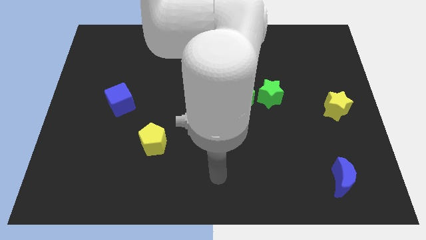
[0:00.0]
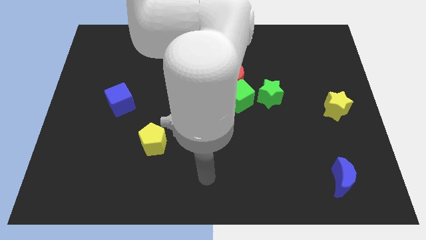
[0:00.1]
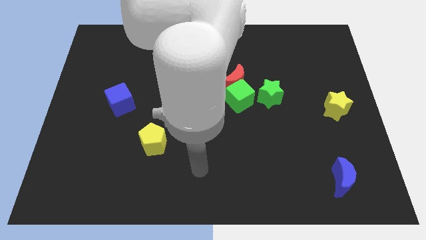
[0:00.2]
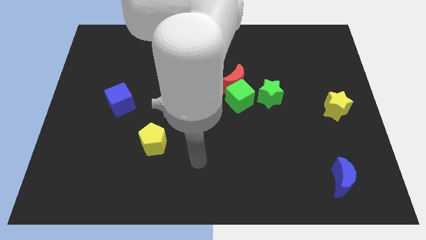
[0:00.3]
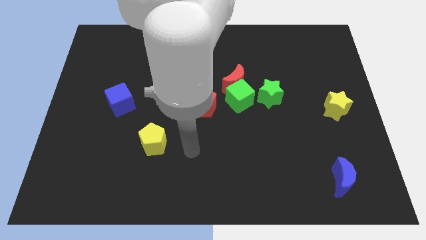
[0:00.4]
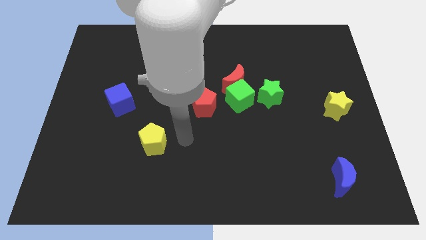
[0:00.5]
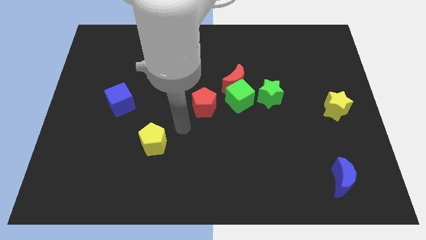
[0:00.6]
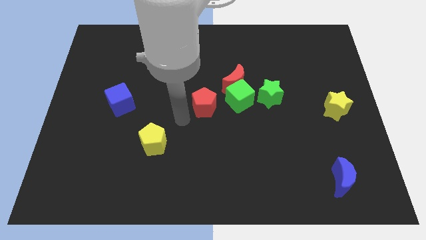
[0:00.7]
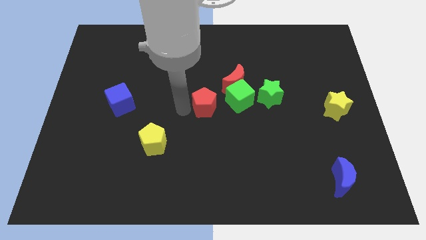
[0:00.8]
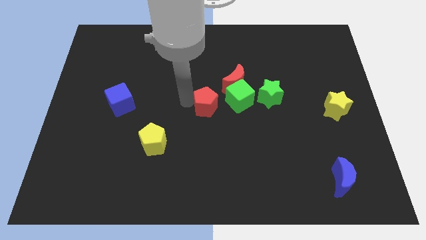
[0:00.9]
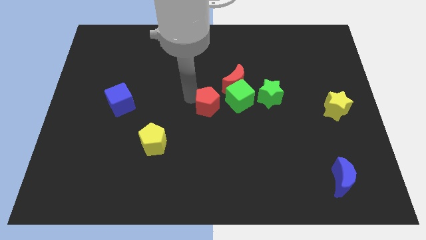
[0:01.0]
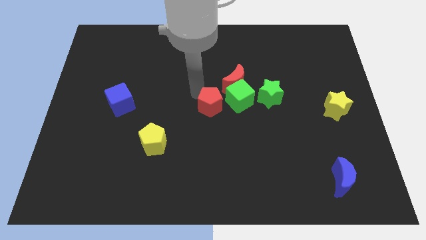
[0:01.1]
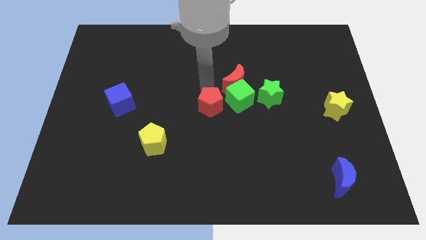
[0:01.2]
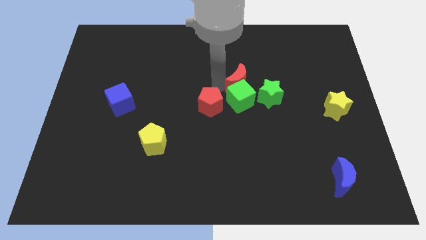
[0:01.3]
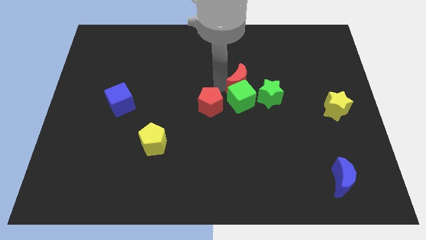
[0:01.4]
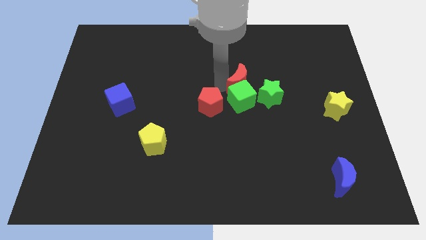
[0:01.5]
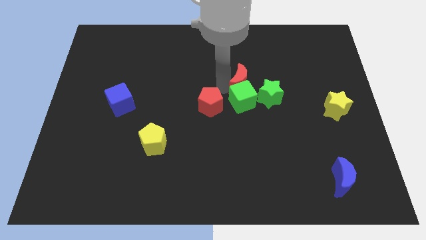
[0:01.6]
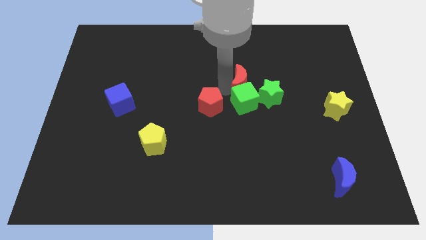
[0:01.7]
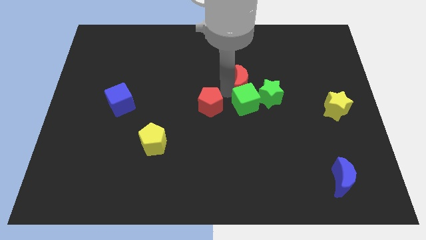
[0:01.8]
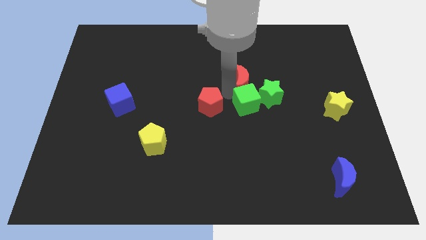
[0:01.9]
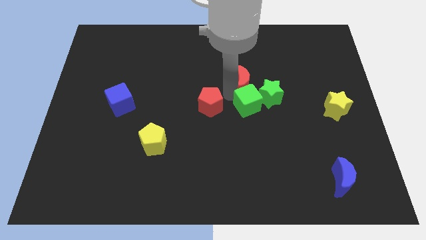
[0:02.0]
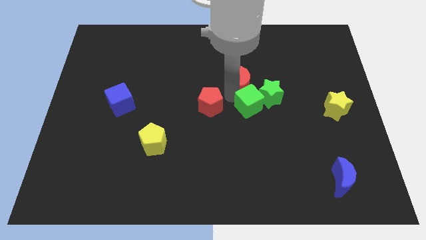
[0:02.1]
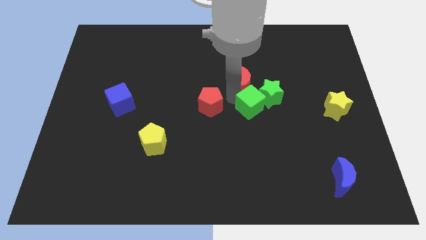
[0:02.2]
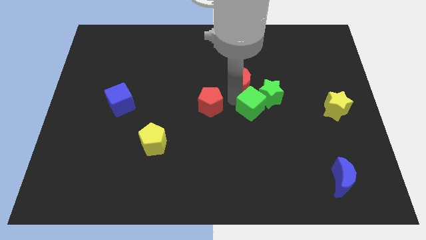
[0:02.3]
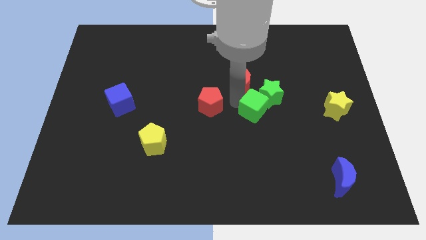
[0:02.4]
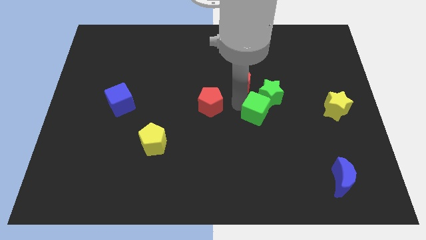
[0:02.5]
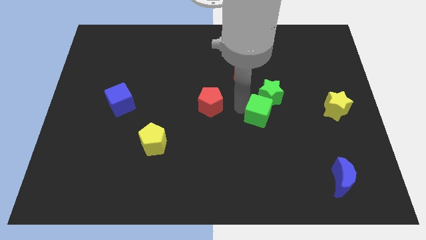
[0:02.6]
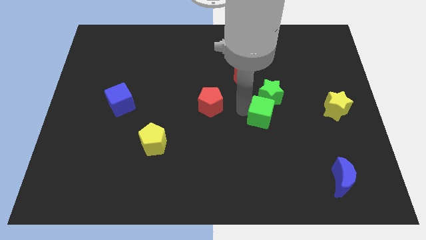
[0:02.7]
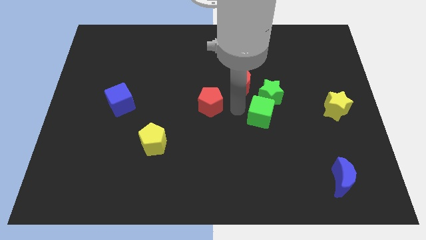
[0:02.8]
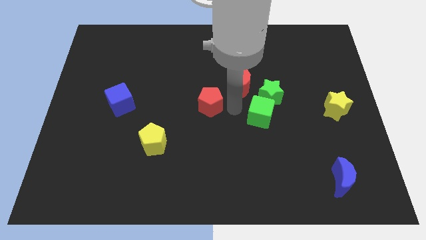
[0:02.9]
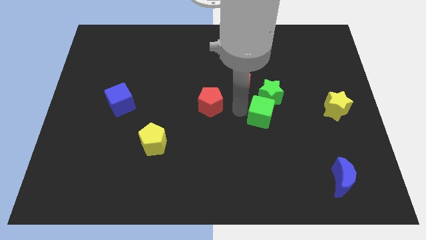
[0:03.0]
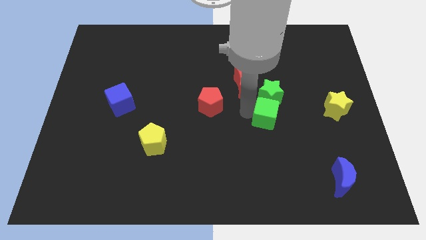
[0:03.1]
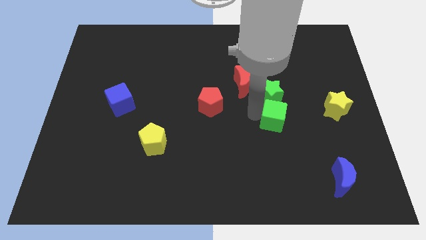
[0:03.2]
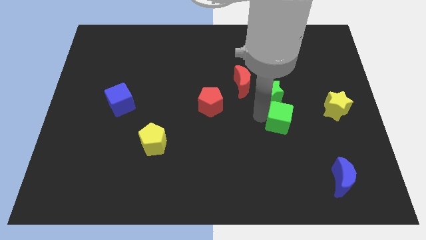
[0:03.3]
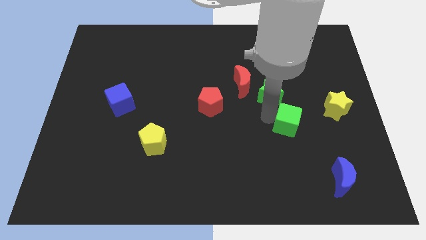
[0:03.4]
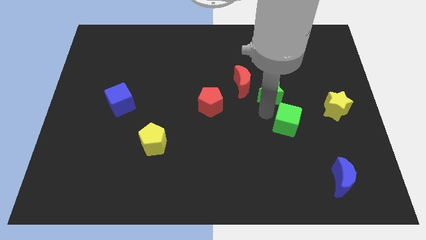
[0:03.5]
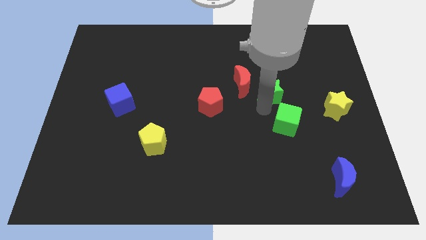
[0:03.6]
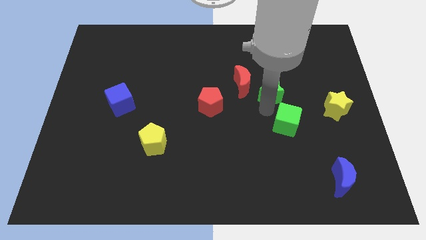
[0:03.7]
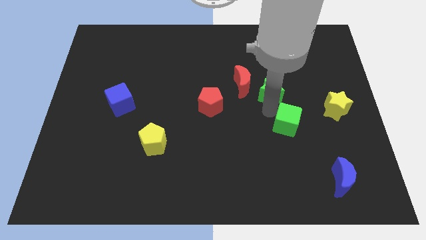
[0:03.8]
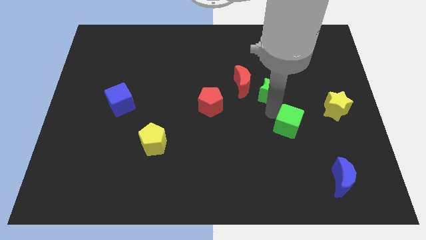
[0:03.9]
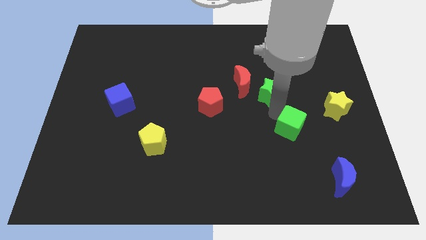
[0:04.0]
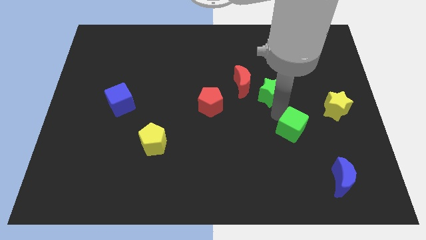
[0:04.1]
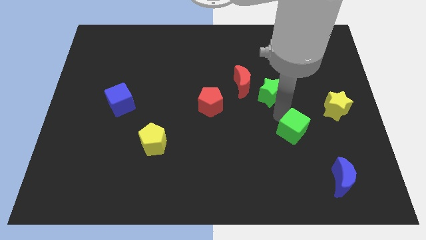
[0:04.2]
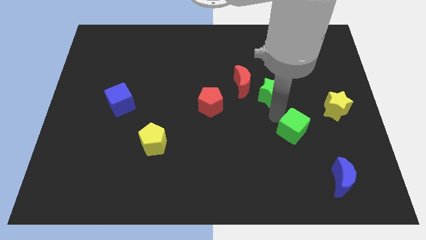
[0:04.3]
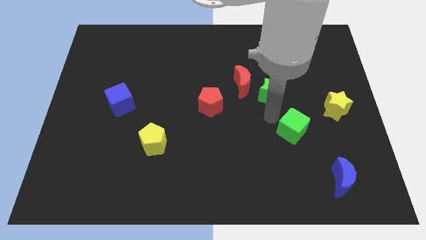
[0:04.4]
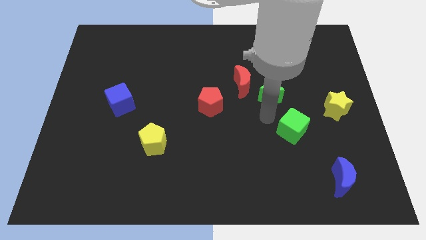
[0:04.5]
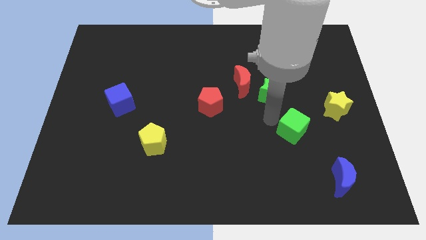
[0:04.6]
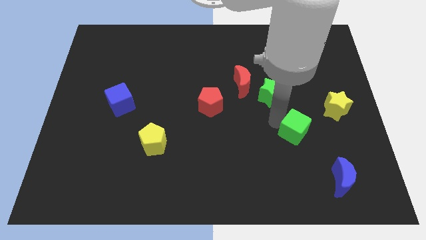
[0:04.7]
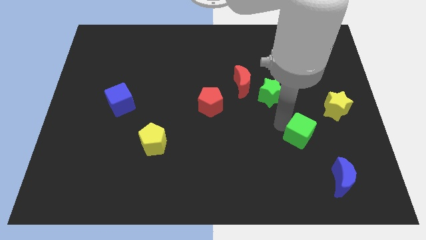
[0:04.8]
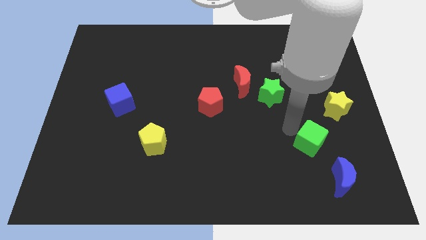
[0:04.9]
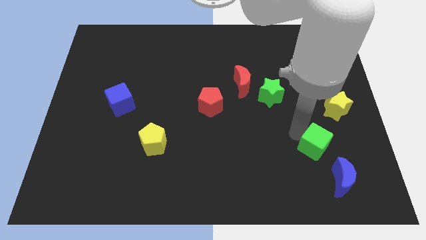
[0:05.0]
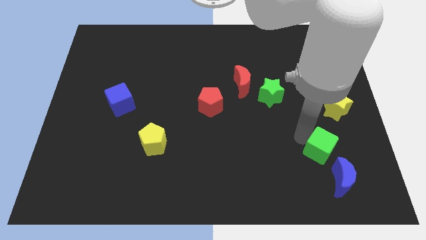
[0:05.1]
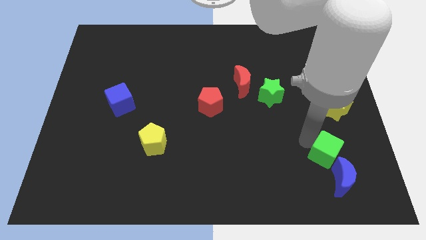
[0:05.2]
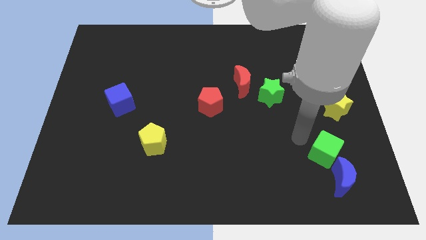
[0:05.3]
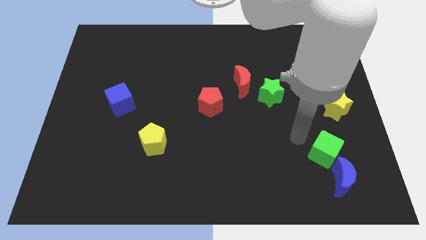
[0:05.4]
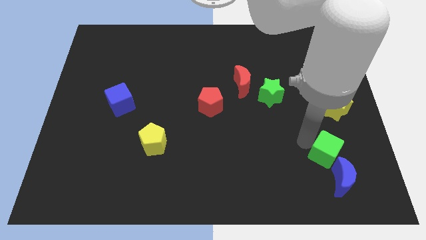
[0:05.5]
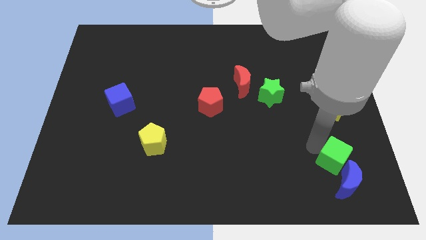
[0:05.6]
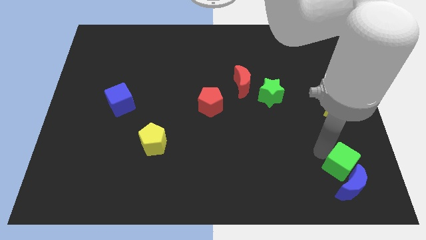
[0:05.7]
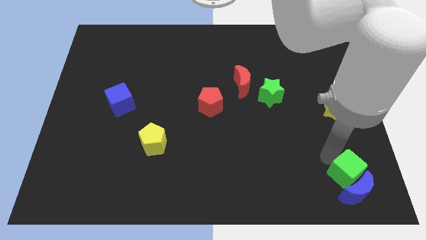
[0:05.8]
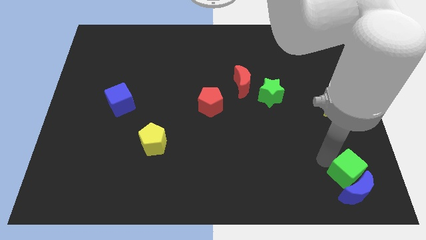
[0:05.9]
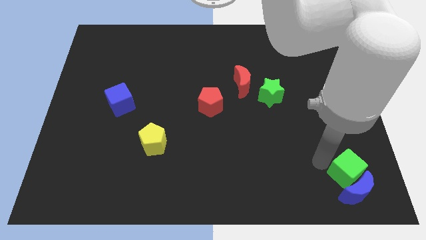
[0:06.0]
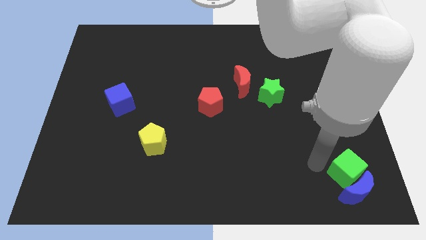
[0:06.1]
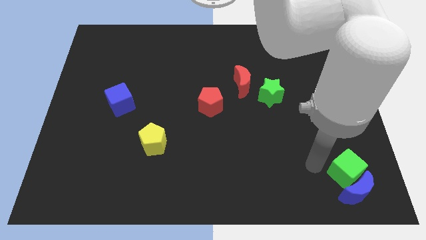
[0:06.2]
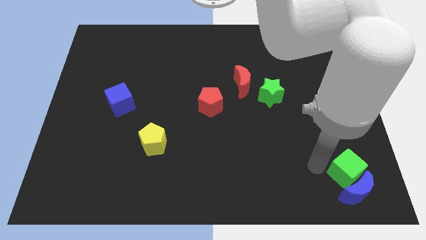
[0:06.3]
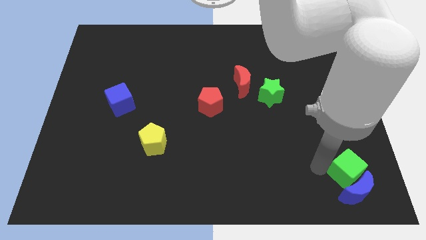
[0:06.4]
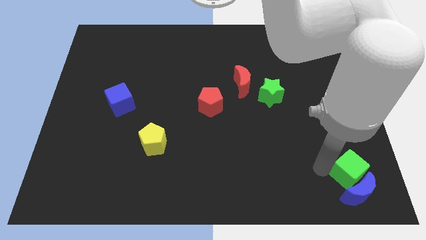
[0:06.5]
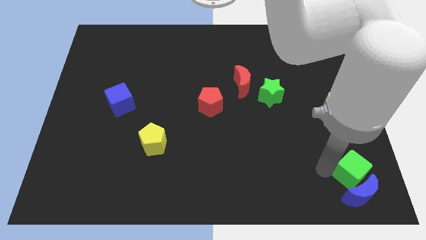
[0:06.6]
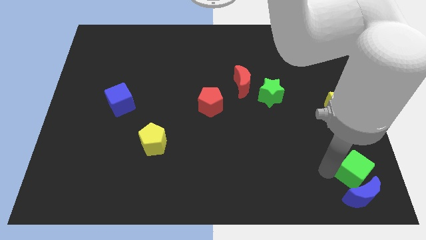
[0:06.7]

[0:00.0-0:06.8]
slide the green cube to the lower right corner
